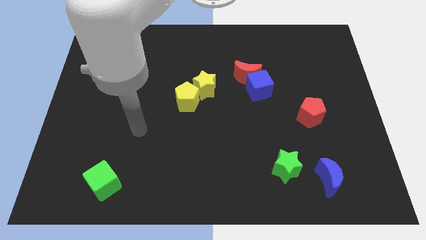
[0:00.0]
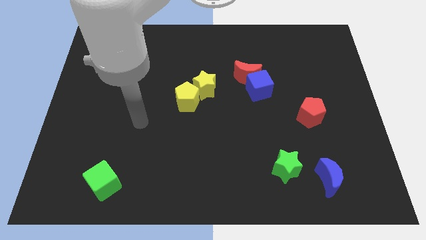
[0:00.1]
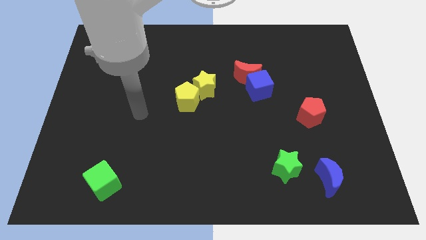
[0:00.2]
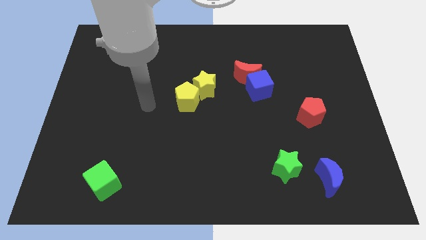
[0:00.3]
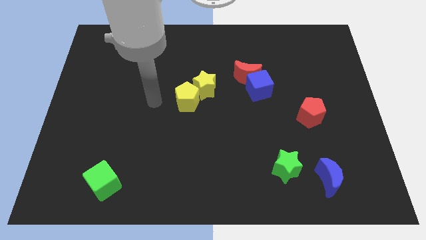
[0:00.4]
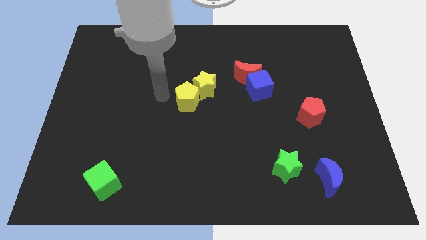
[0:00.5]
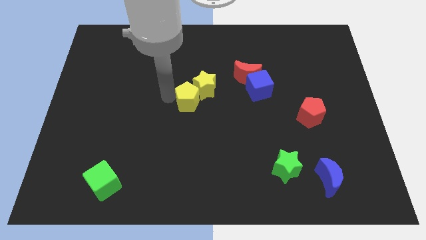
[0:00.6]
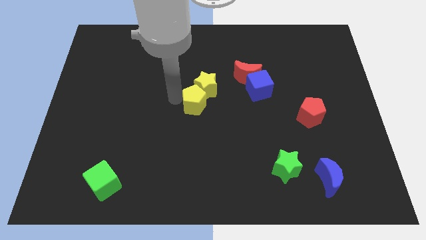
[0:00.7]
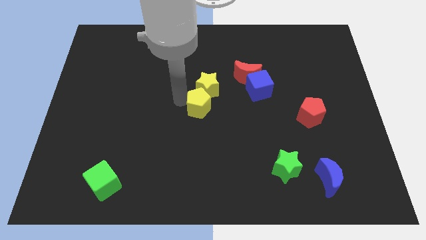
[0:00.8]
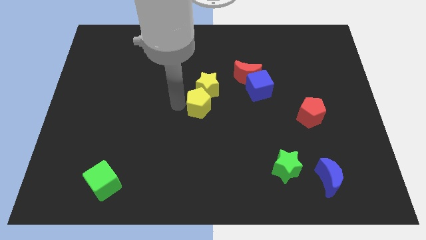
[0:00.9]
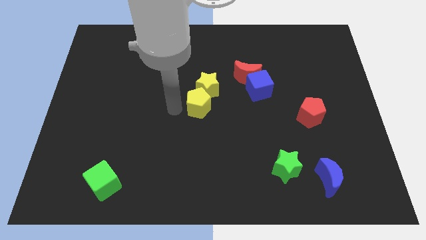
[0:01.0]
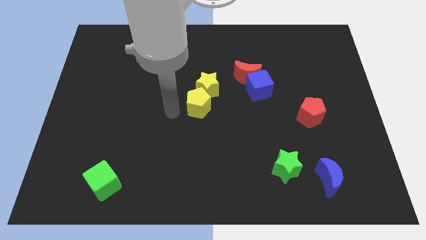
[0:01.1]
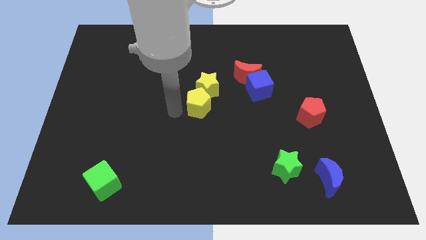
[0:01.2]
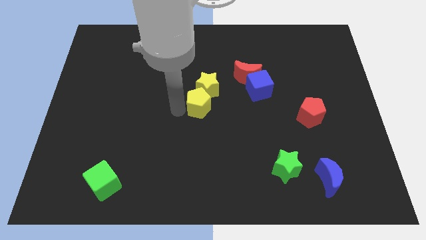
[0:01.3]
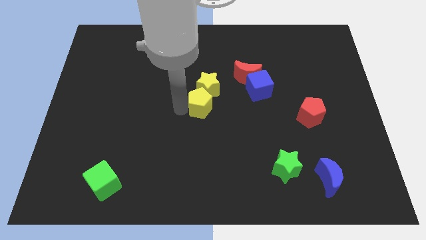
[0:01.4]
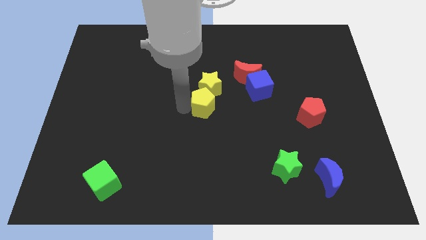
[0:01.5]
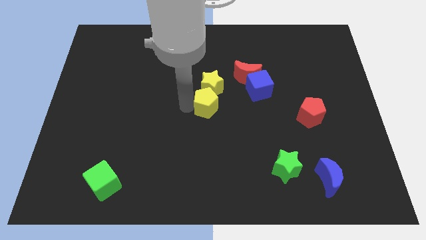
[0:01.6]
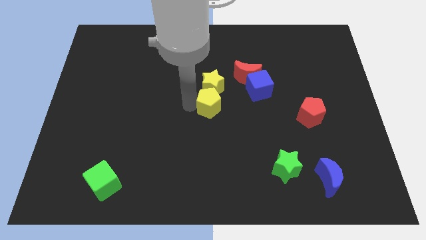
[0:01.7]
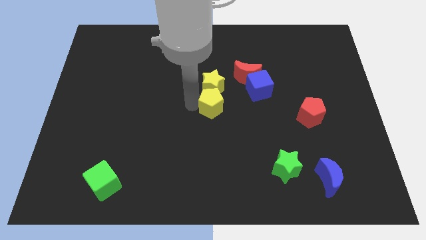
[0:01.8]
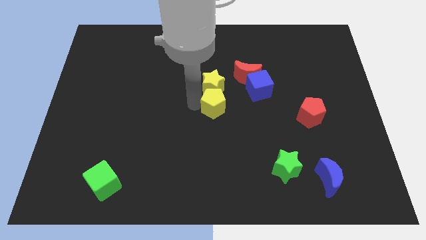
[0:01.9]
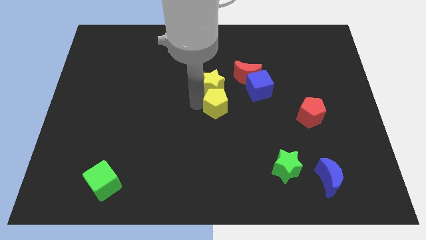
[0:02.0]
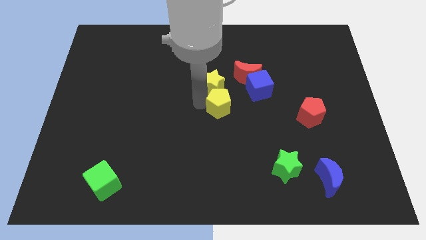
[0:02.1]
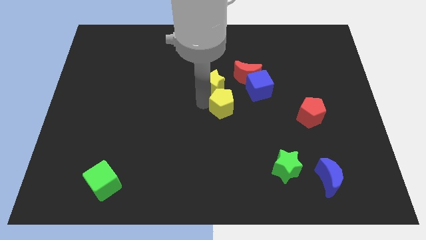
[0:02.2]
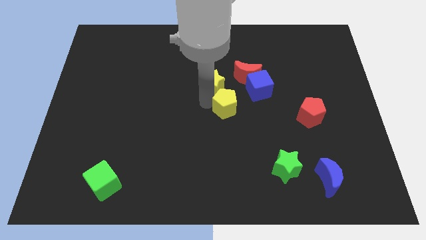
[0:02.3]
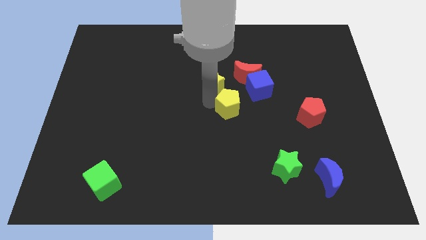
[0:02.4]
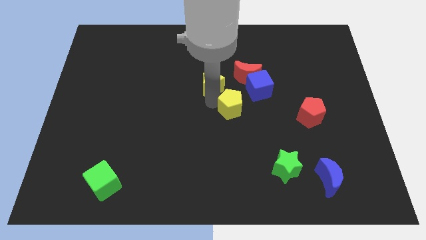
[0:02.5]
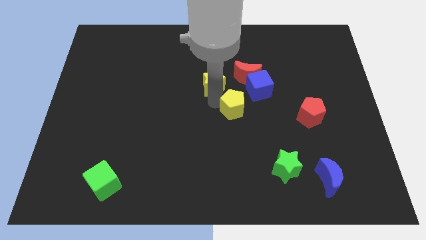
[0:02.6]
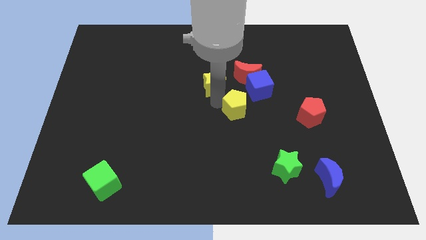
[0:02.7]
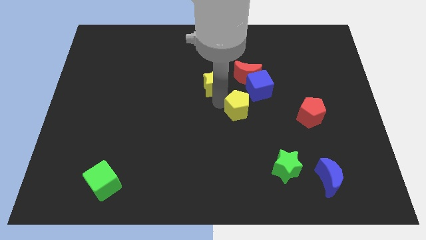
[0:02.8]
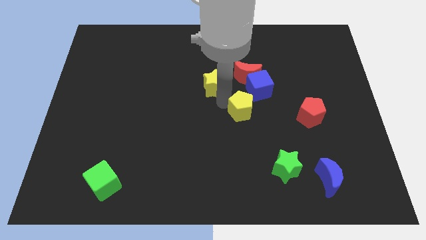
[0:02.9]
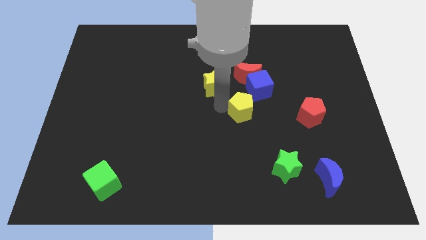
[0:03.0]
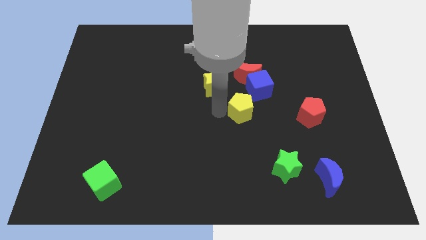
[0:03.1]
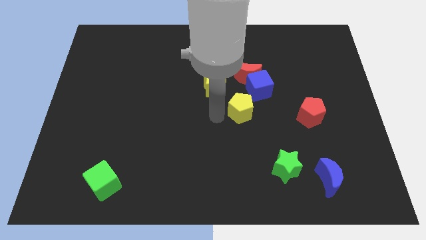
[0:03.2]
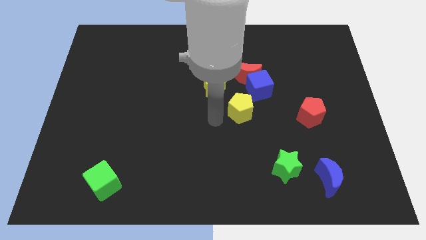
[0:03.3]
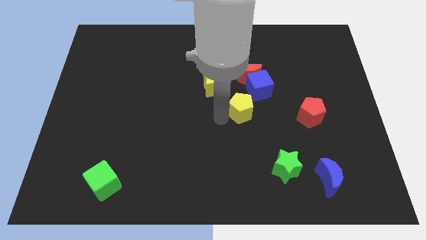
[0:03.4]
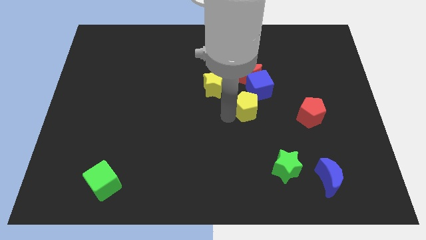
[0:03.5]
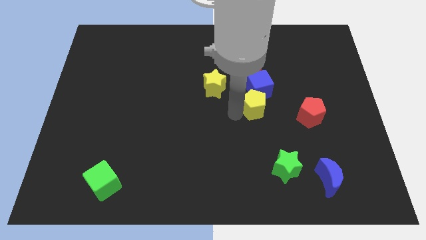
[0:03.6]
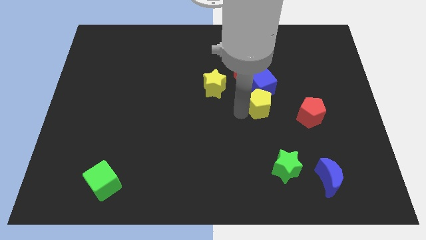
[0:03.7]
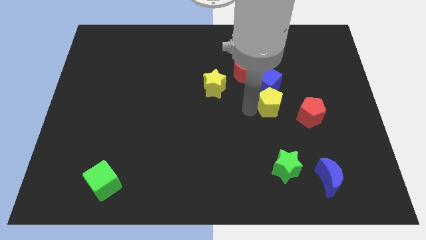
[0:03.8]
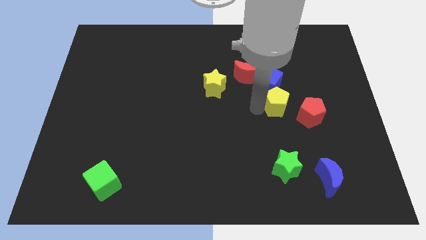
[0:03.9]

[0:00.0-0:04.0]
move the yellow pentagon right

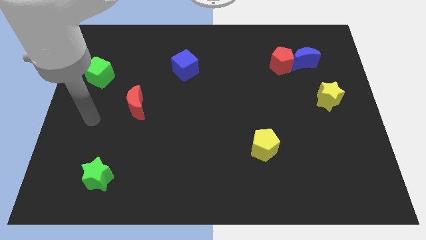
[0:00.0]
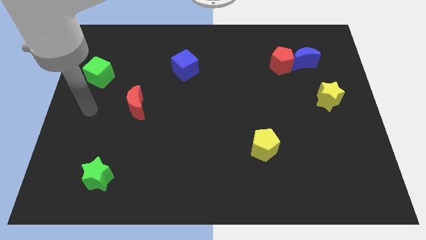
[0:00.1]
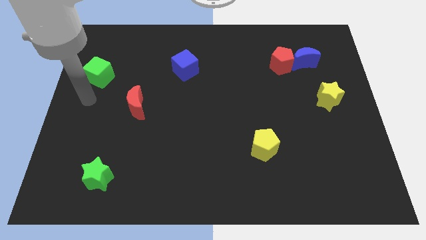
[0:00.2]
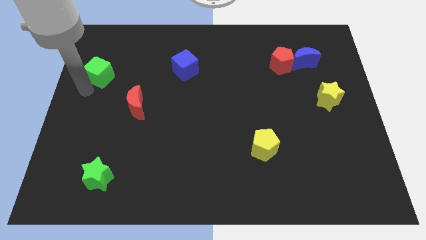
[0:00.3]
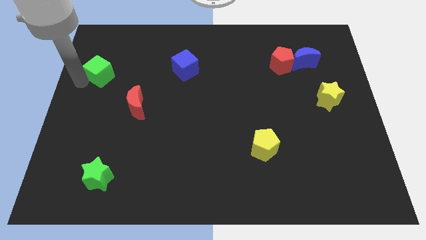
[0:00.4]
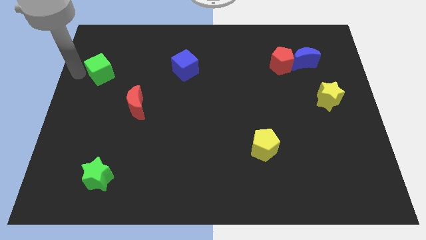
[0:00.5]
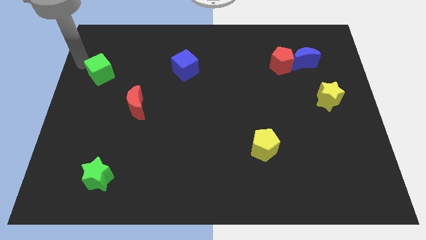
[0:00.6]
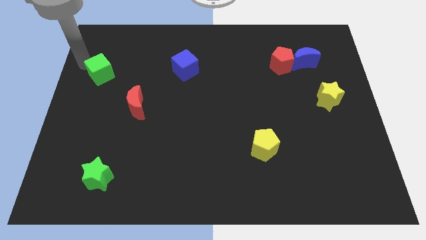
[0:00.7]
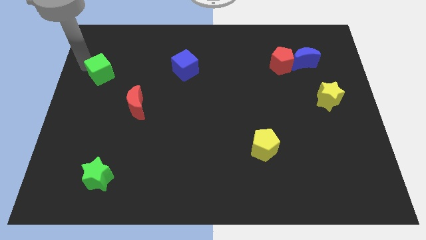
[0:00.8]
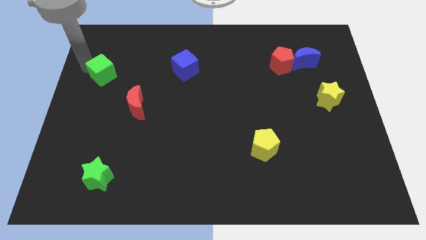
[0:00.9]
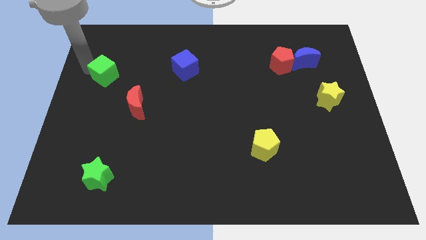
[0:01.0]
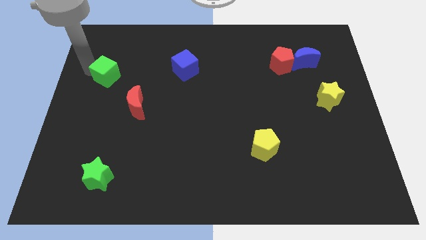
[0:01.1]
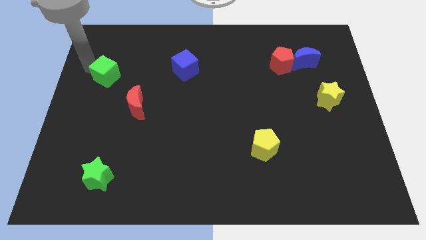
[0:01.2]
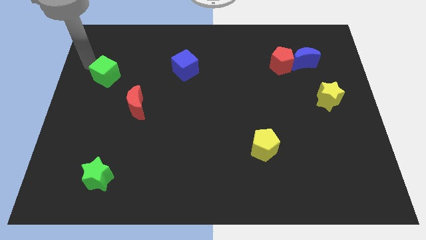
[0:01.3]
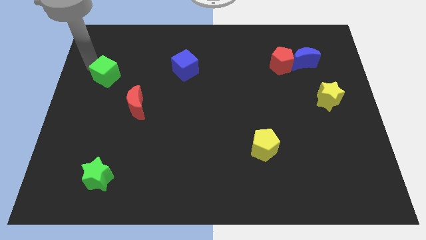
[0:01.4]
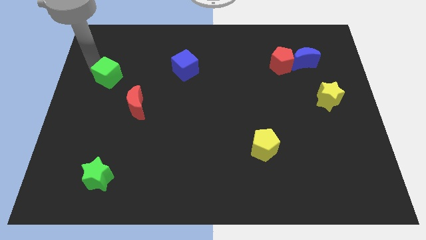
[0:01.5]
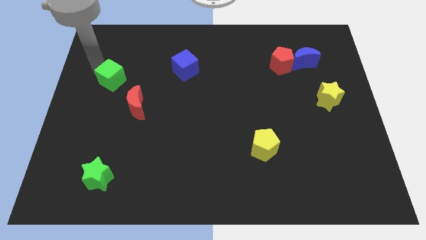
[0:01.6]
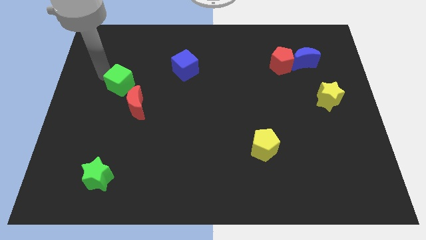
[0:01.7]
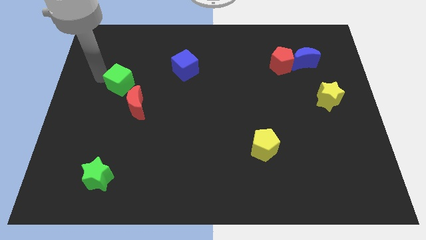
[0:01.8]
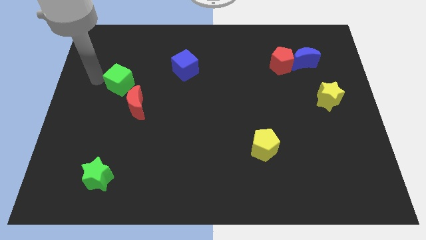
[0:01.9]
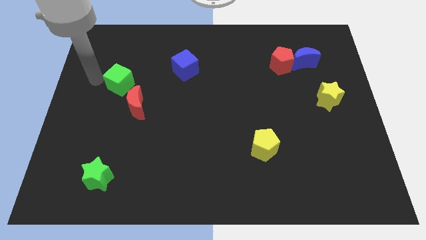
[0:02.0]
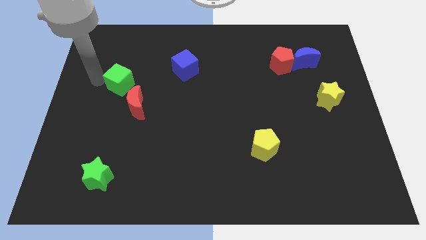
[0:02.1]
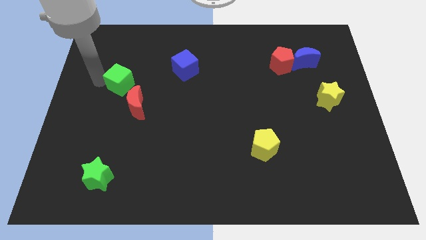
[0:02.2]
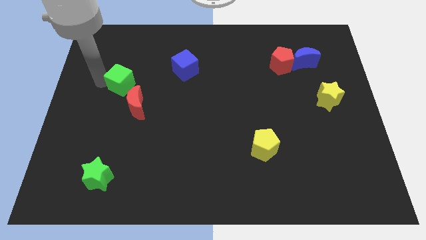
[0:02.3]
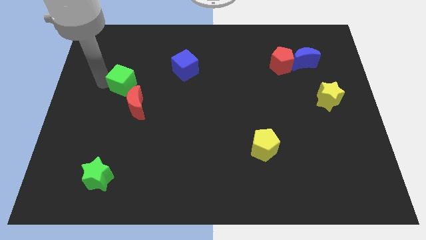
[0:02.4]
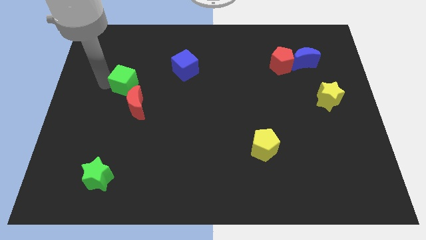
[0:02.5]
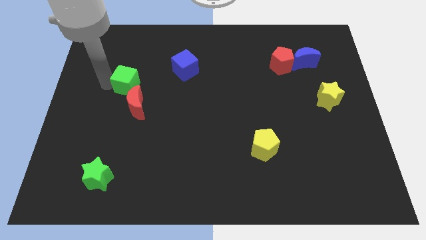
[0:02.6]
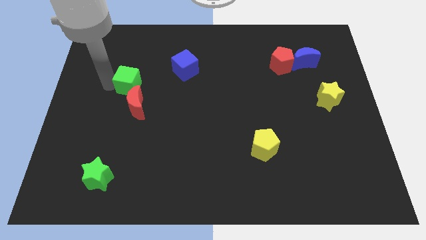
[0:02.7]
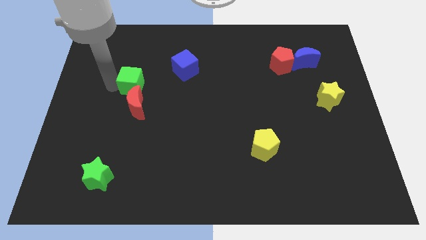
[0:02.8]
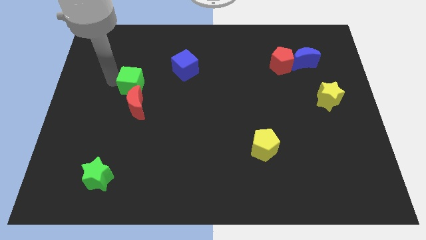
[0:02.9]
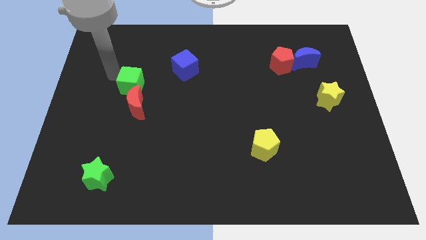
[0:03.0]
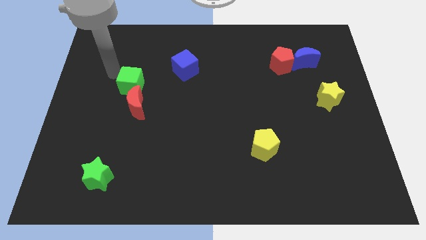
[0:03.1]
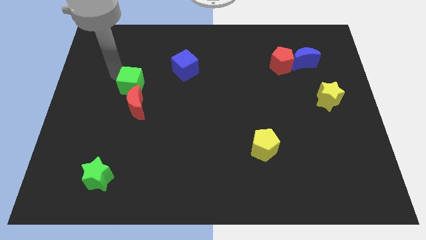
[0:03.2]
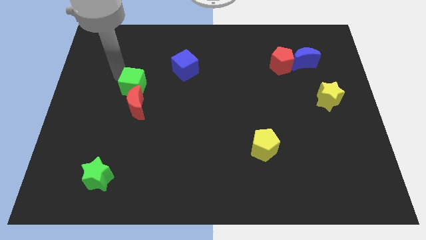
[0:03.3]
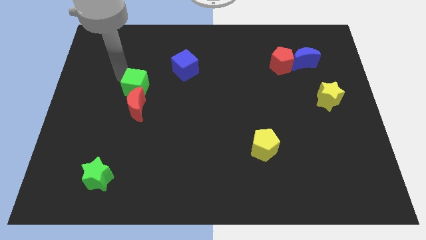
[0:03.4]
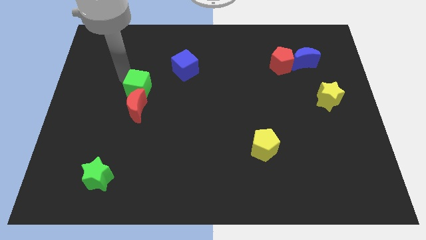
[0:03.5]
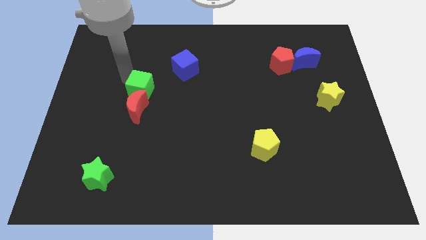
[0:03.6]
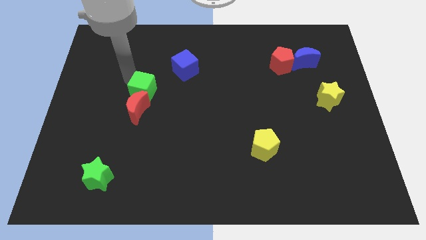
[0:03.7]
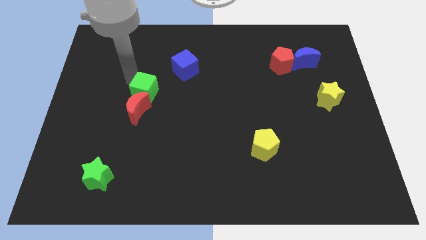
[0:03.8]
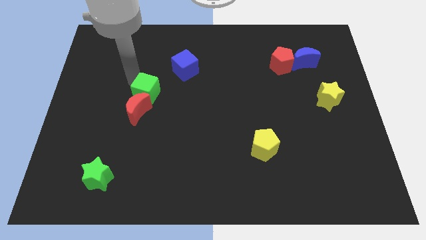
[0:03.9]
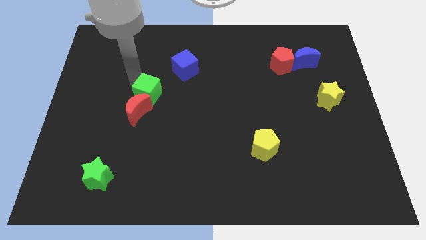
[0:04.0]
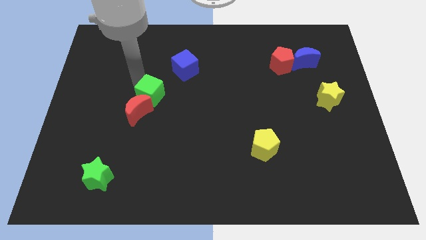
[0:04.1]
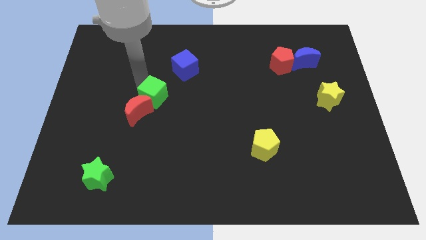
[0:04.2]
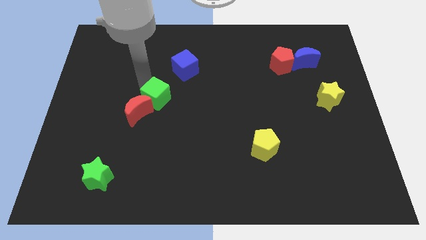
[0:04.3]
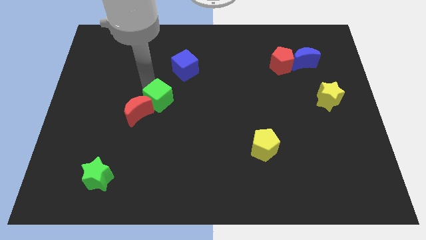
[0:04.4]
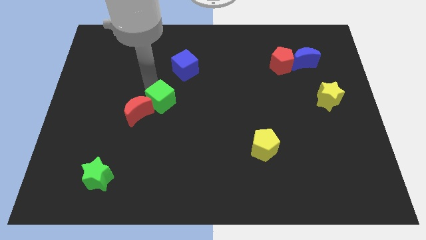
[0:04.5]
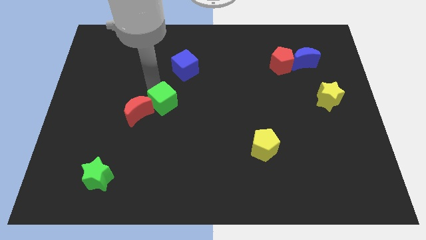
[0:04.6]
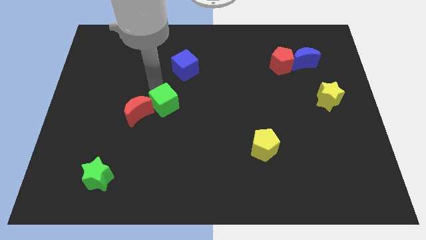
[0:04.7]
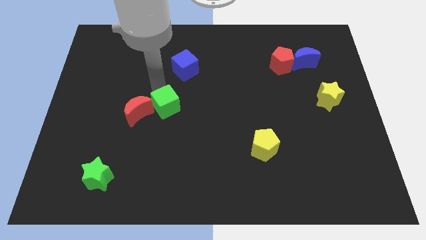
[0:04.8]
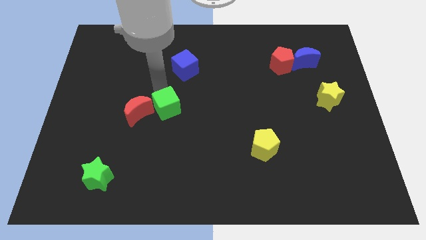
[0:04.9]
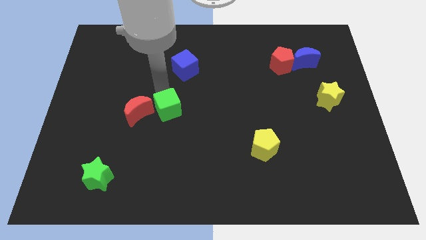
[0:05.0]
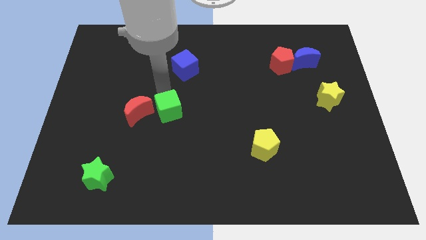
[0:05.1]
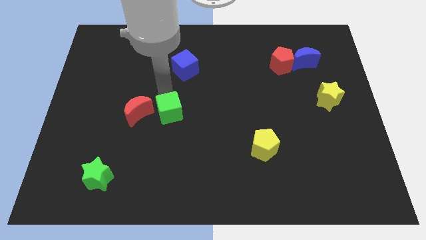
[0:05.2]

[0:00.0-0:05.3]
slide the green cube downwards and to the right diagonally
